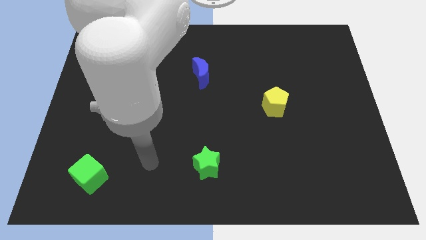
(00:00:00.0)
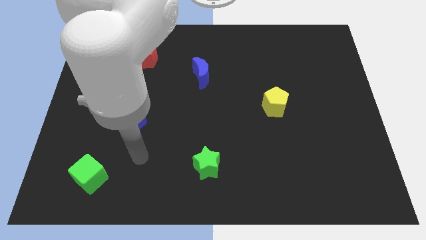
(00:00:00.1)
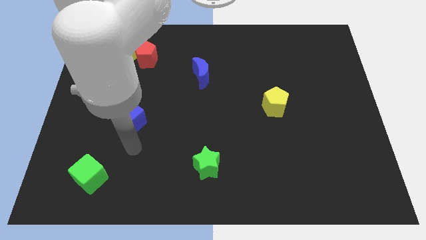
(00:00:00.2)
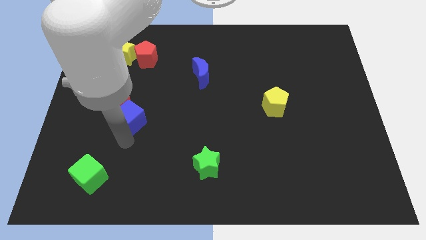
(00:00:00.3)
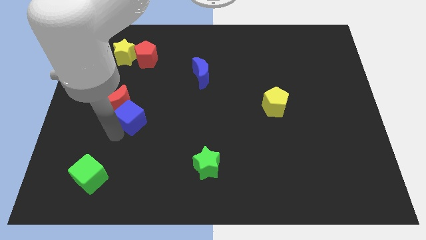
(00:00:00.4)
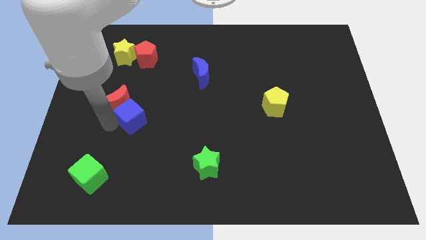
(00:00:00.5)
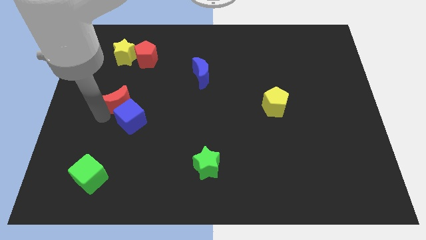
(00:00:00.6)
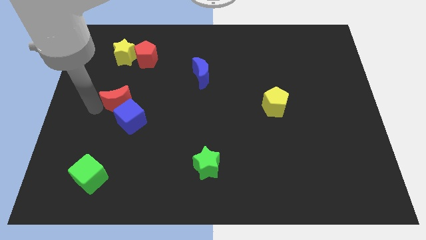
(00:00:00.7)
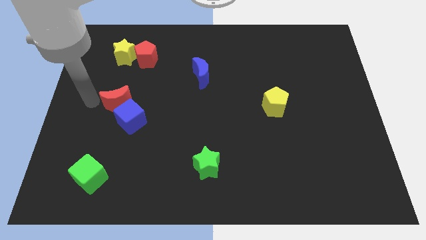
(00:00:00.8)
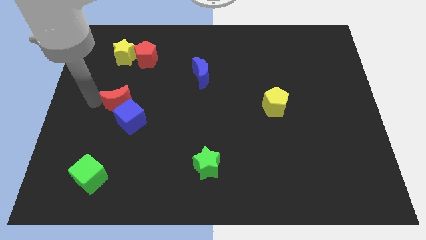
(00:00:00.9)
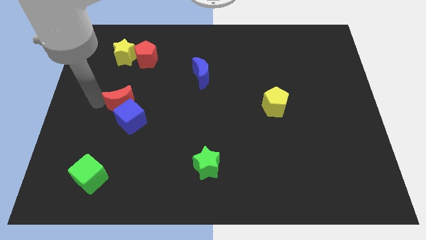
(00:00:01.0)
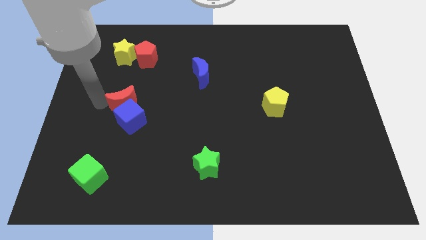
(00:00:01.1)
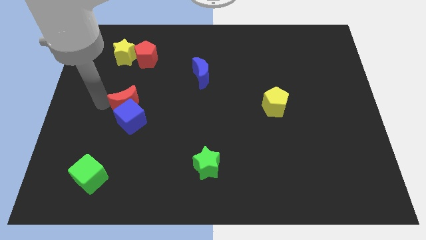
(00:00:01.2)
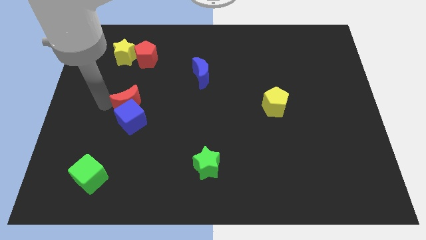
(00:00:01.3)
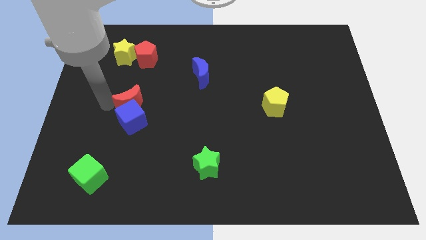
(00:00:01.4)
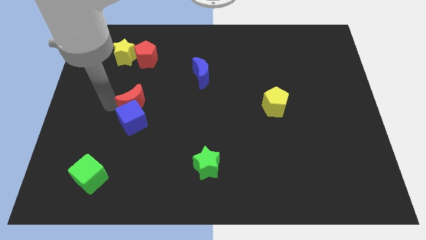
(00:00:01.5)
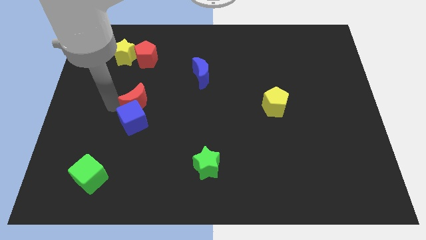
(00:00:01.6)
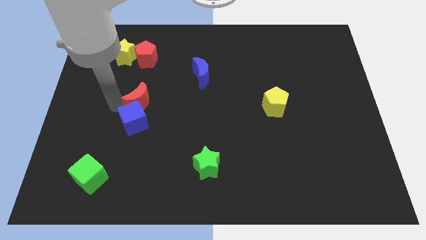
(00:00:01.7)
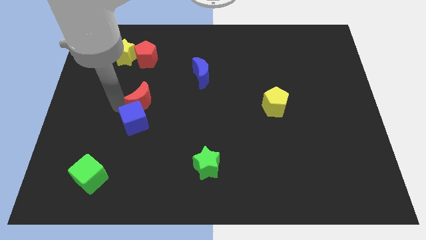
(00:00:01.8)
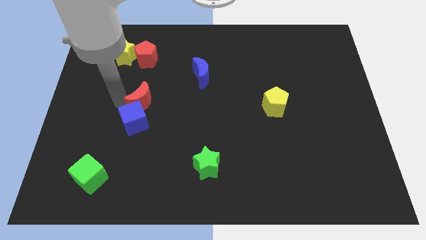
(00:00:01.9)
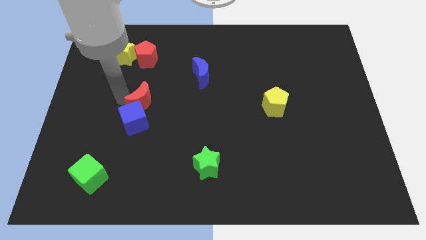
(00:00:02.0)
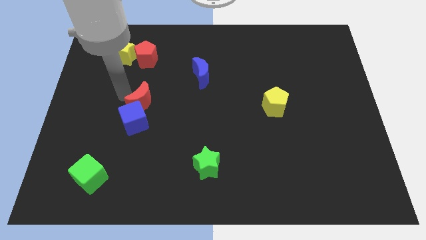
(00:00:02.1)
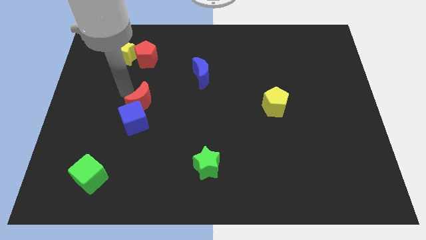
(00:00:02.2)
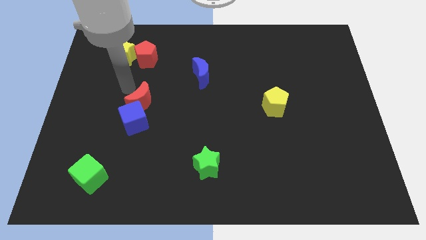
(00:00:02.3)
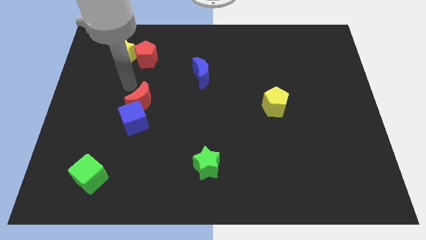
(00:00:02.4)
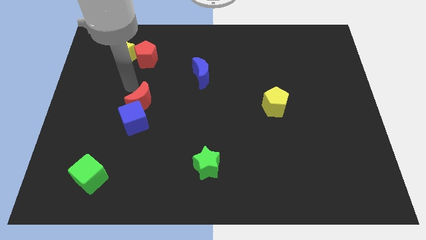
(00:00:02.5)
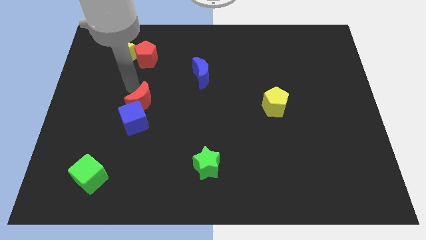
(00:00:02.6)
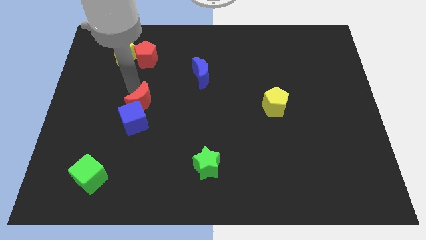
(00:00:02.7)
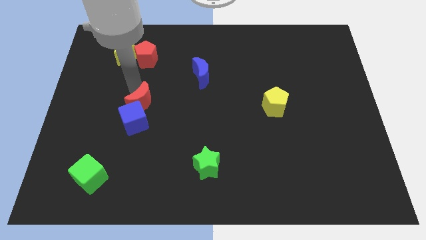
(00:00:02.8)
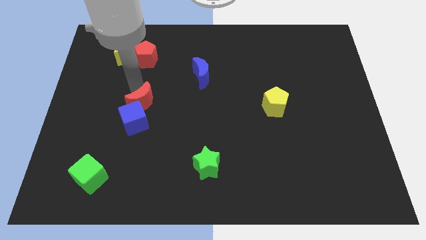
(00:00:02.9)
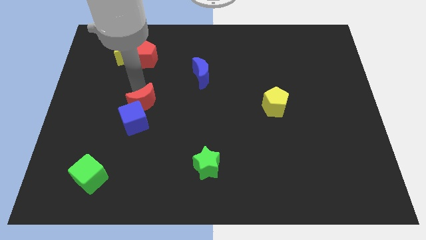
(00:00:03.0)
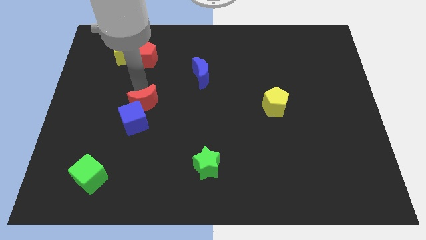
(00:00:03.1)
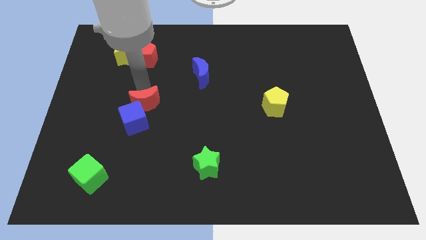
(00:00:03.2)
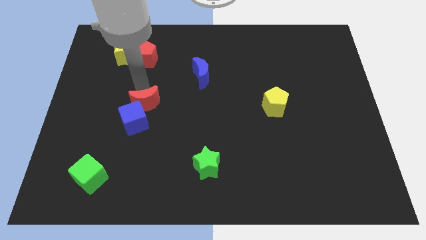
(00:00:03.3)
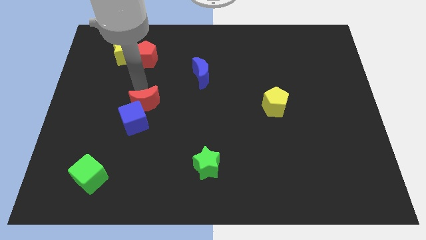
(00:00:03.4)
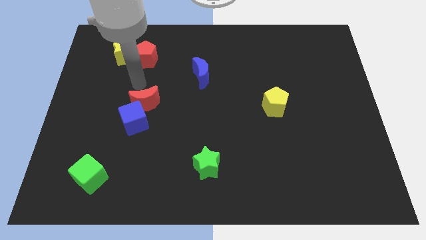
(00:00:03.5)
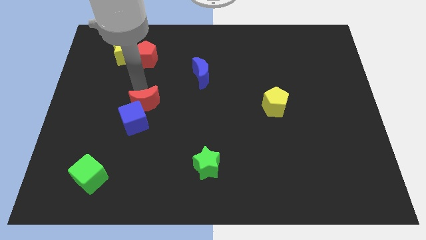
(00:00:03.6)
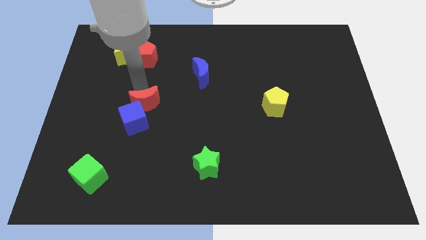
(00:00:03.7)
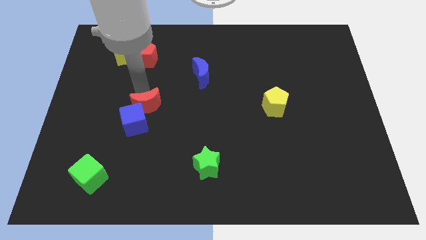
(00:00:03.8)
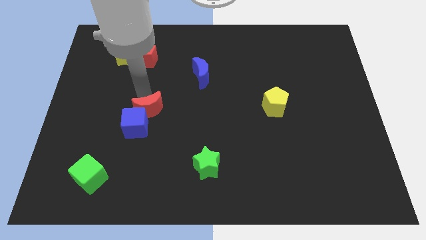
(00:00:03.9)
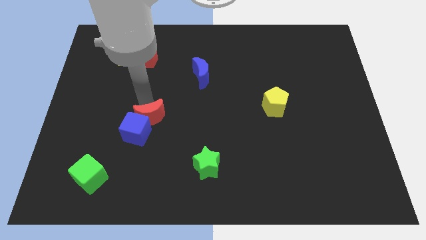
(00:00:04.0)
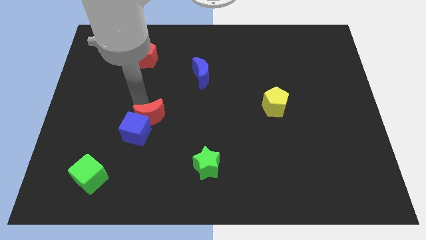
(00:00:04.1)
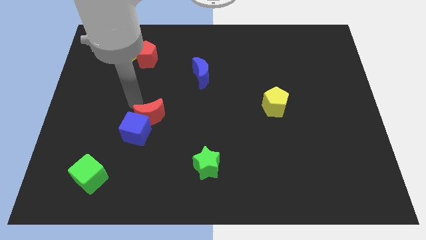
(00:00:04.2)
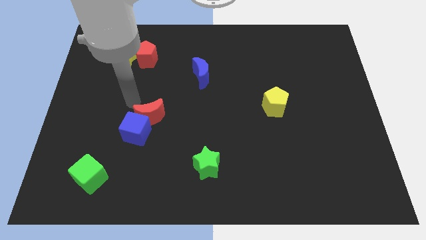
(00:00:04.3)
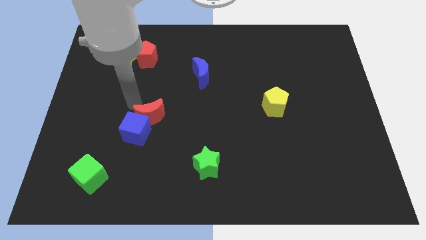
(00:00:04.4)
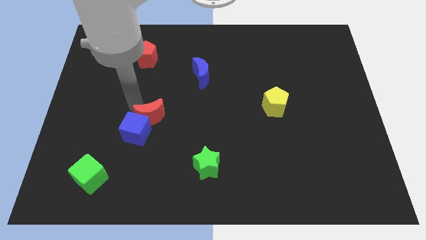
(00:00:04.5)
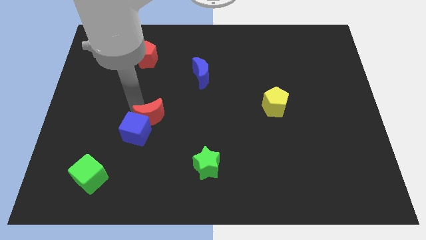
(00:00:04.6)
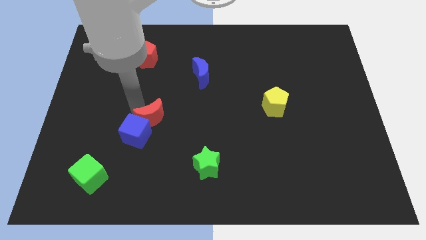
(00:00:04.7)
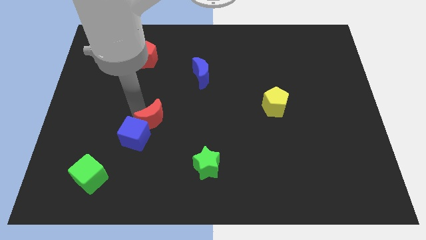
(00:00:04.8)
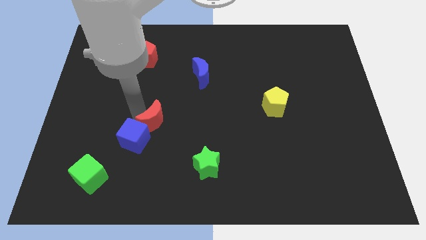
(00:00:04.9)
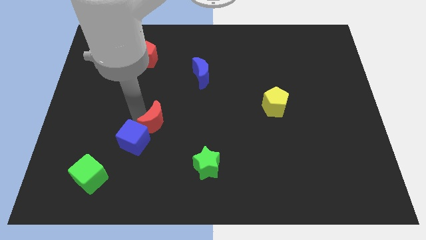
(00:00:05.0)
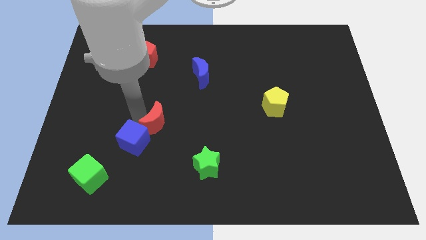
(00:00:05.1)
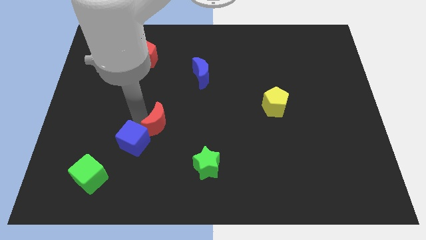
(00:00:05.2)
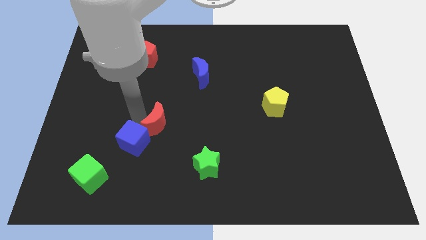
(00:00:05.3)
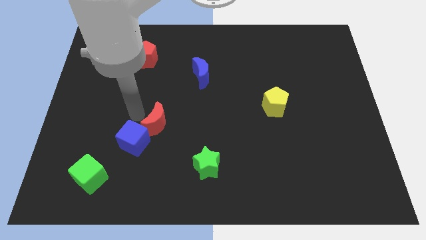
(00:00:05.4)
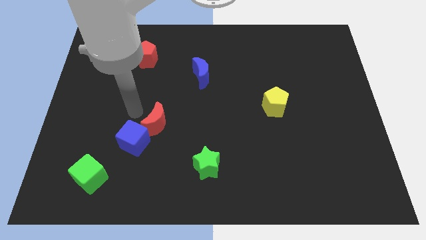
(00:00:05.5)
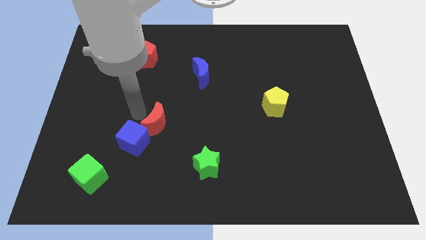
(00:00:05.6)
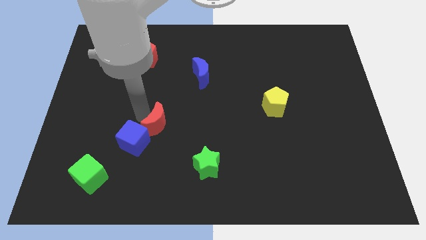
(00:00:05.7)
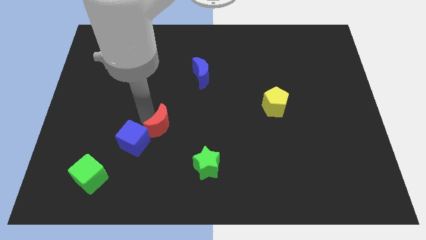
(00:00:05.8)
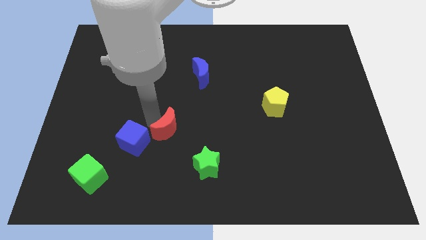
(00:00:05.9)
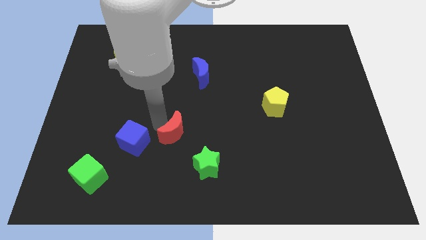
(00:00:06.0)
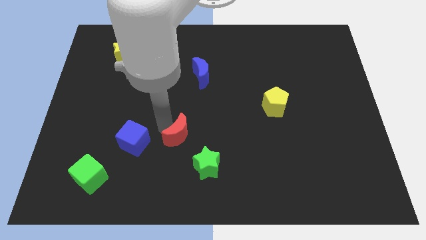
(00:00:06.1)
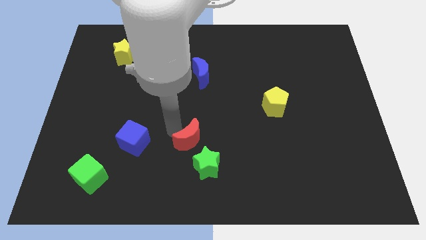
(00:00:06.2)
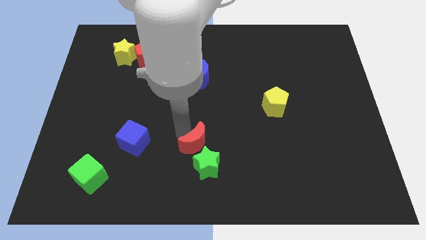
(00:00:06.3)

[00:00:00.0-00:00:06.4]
move the red moon close to the green star

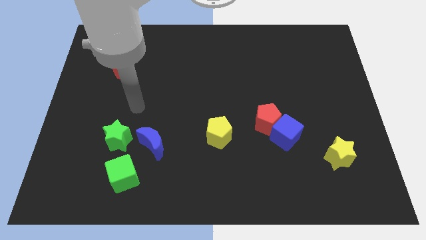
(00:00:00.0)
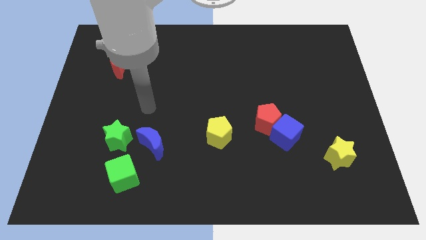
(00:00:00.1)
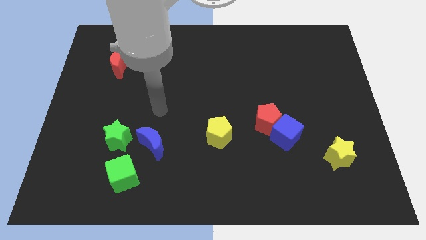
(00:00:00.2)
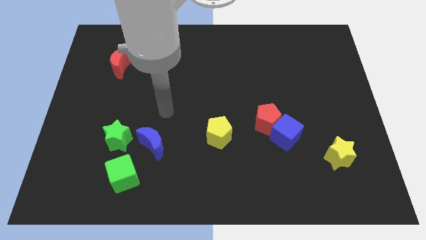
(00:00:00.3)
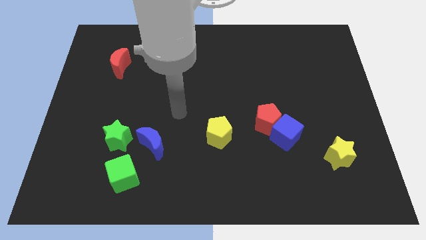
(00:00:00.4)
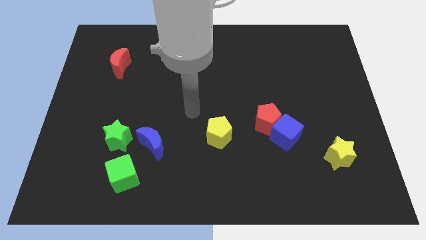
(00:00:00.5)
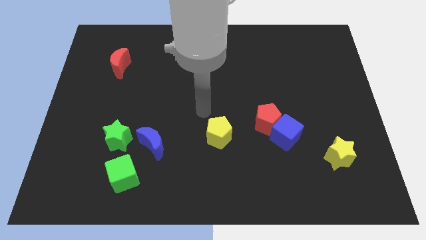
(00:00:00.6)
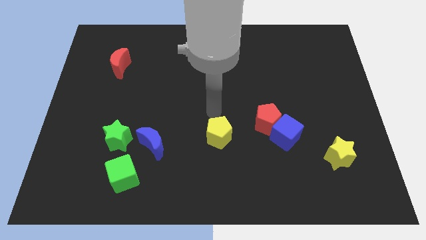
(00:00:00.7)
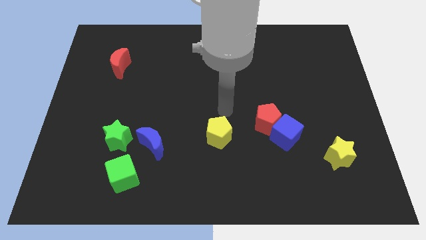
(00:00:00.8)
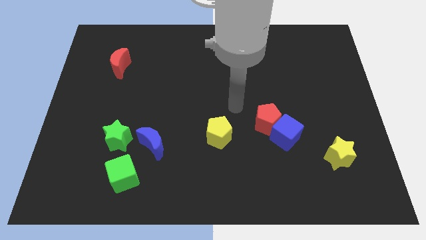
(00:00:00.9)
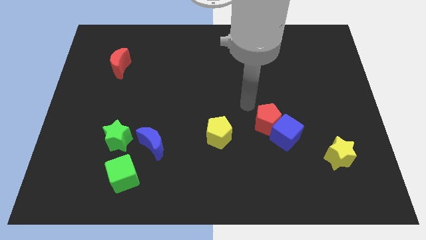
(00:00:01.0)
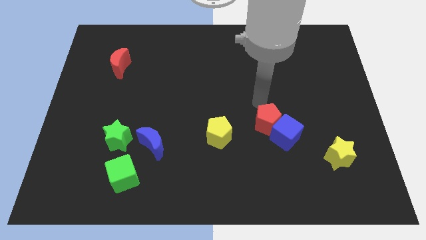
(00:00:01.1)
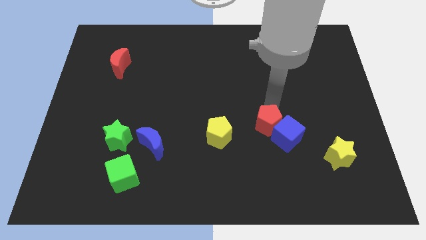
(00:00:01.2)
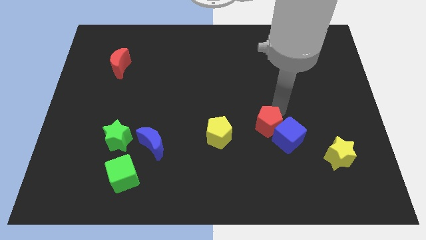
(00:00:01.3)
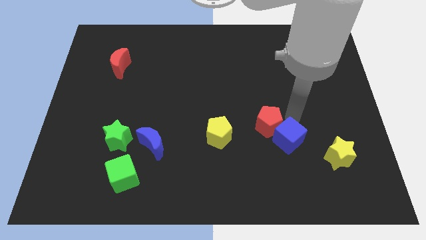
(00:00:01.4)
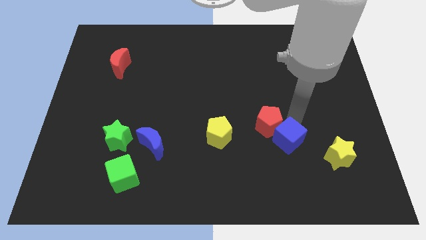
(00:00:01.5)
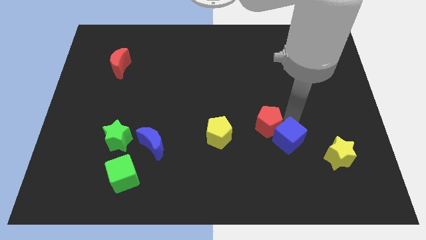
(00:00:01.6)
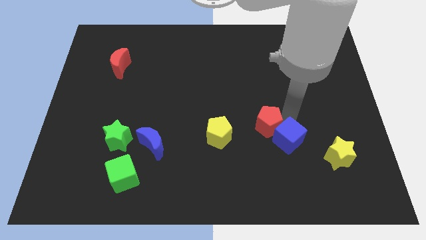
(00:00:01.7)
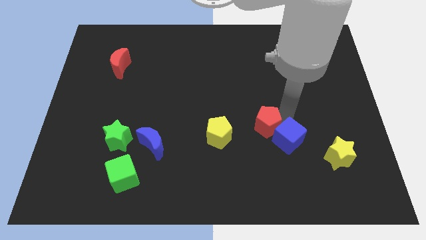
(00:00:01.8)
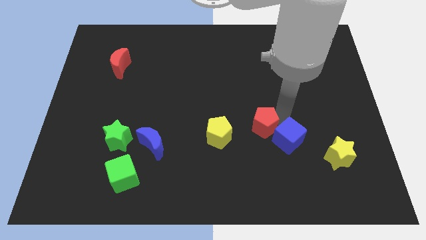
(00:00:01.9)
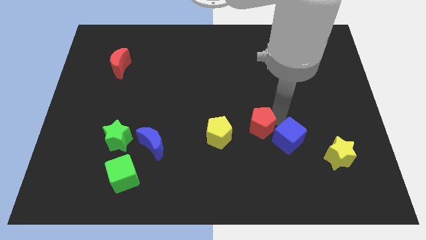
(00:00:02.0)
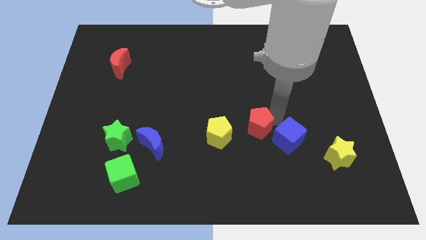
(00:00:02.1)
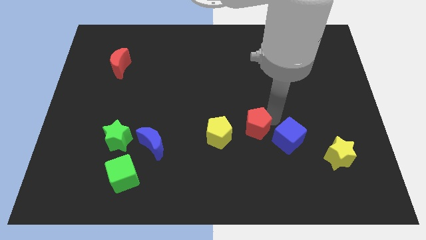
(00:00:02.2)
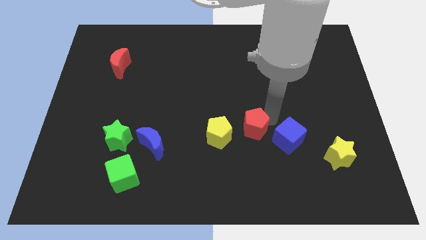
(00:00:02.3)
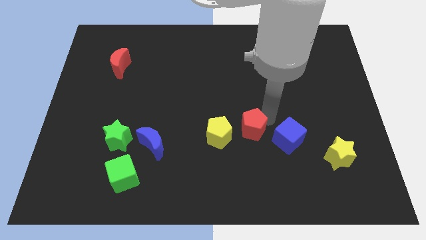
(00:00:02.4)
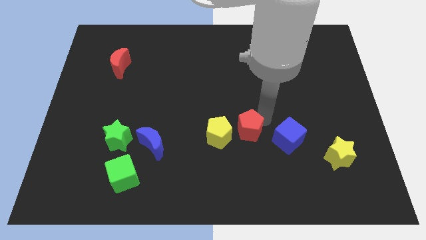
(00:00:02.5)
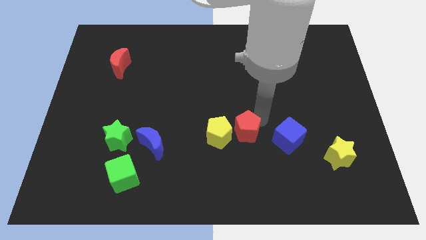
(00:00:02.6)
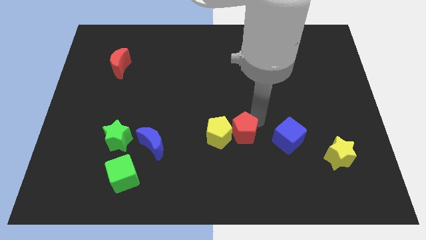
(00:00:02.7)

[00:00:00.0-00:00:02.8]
push the red pentagon next to the yellow pentagon
